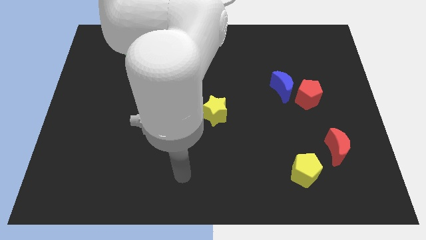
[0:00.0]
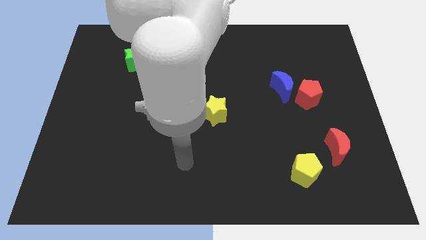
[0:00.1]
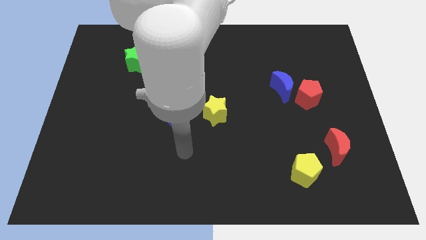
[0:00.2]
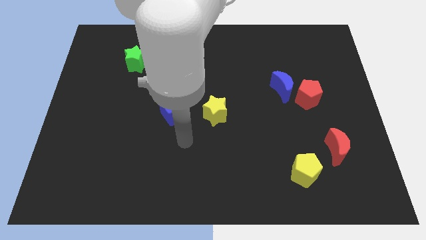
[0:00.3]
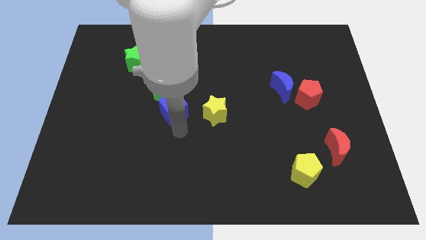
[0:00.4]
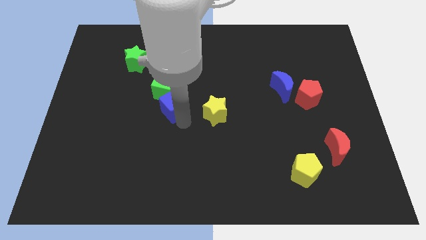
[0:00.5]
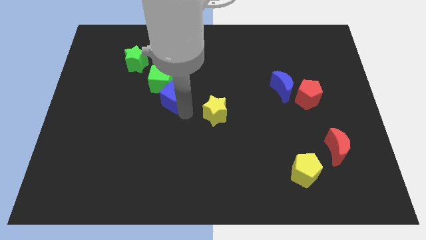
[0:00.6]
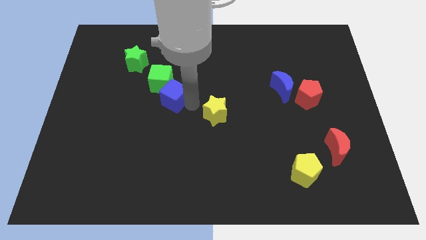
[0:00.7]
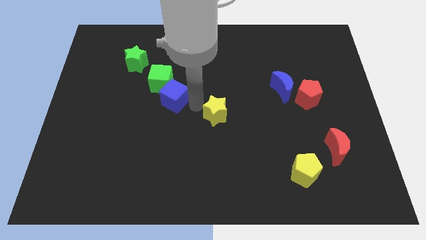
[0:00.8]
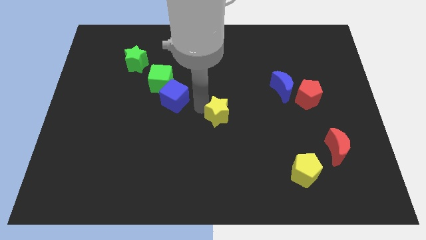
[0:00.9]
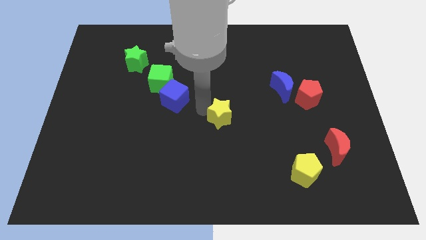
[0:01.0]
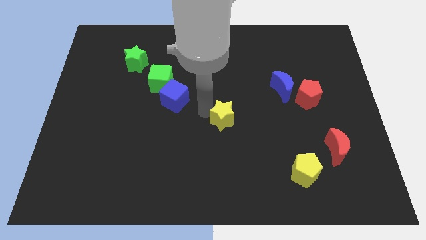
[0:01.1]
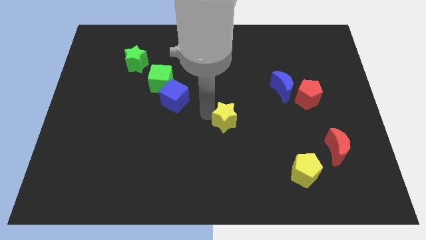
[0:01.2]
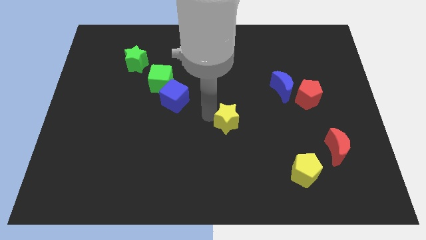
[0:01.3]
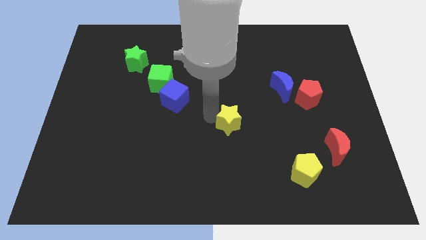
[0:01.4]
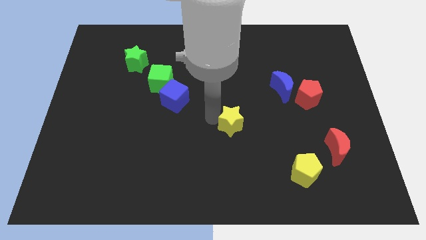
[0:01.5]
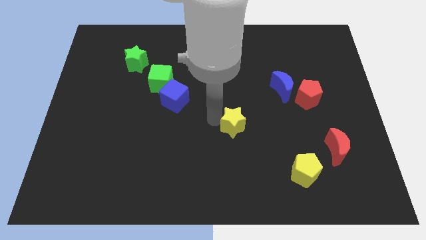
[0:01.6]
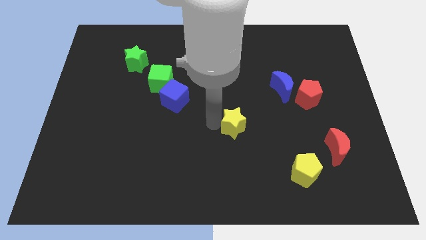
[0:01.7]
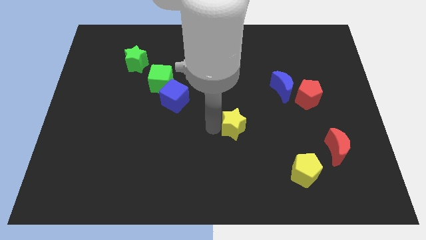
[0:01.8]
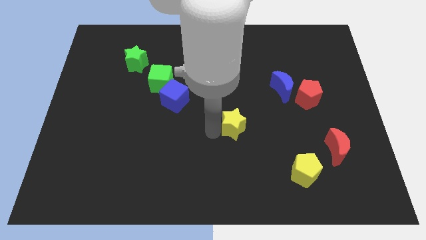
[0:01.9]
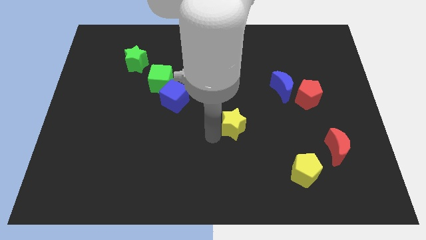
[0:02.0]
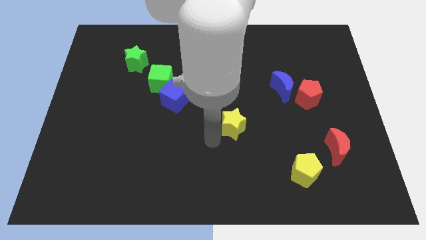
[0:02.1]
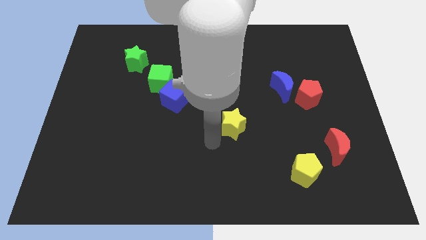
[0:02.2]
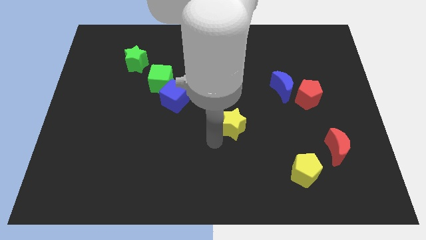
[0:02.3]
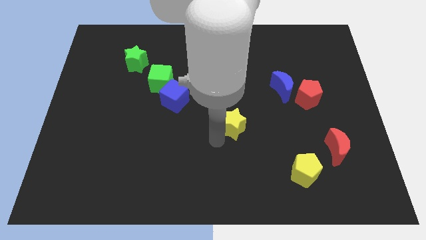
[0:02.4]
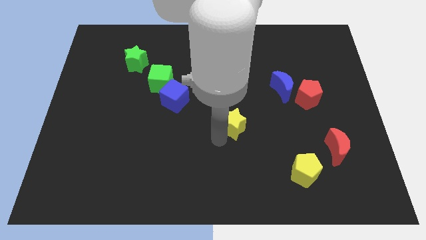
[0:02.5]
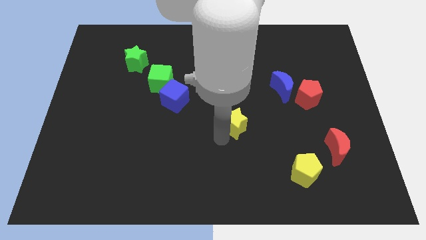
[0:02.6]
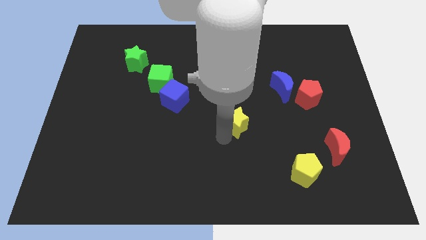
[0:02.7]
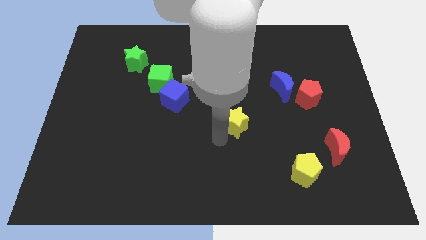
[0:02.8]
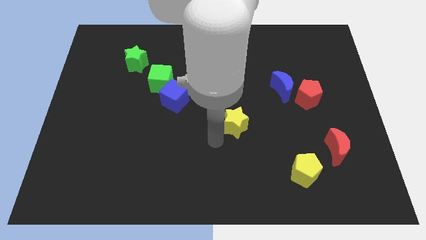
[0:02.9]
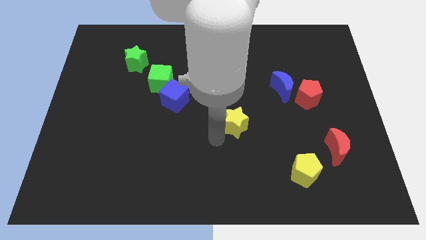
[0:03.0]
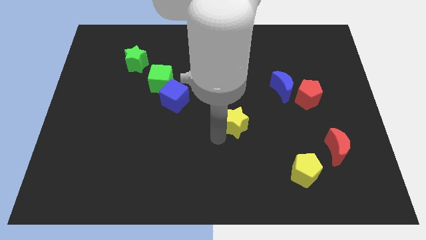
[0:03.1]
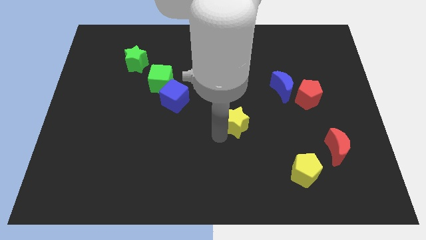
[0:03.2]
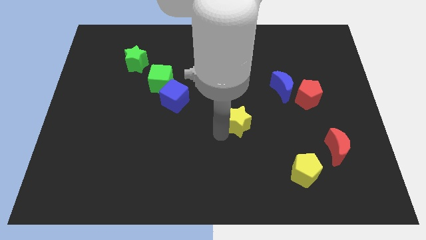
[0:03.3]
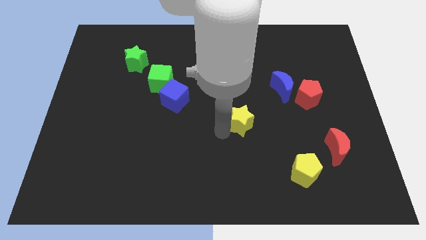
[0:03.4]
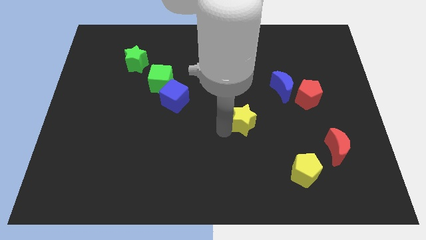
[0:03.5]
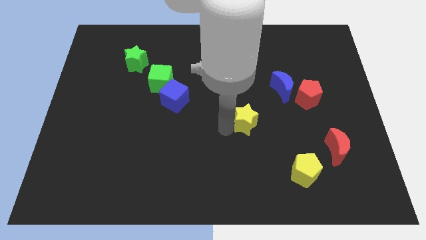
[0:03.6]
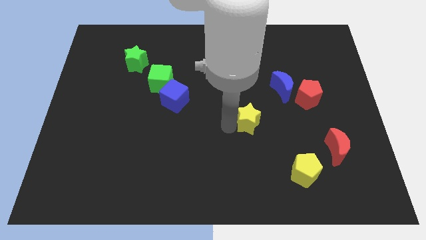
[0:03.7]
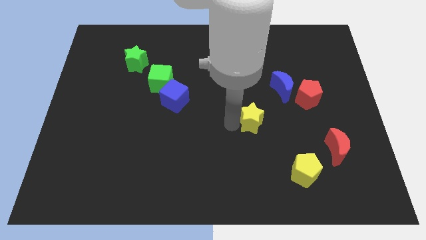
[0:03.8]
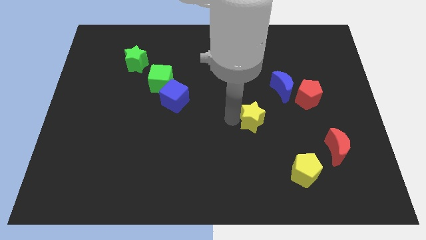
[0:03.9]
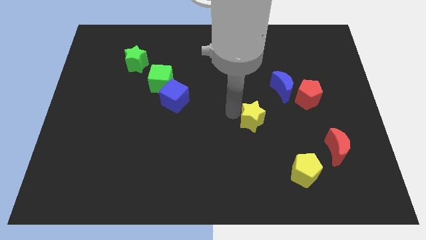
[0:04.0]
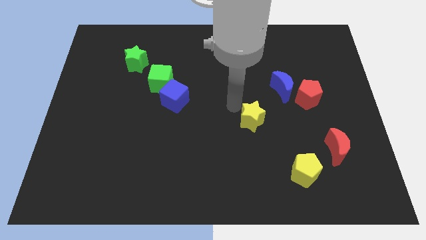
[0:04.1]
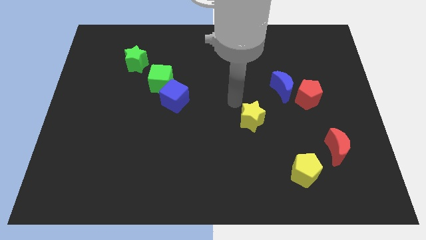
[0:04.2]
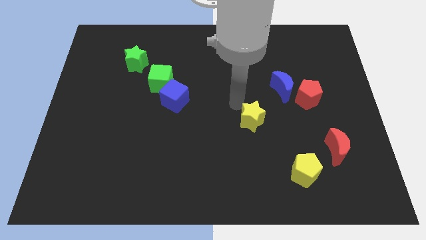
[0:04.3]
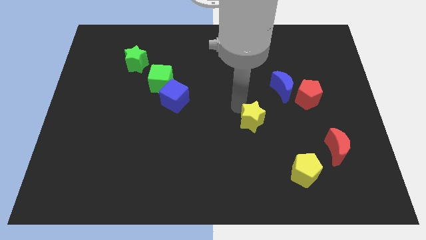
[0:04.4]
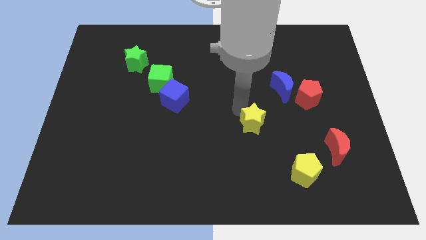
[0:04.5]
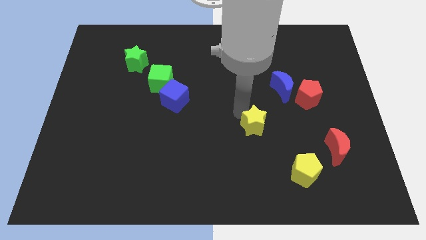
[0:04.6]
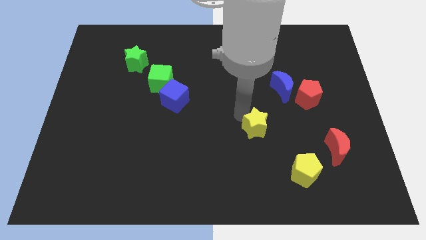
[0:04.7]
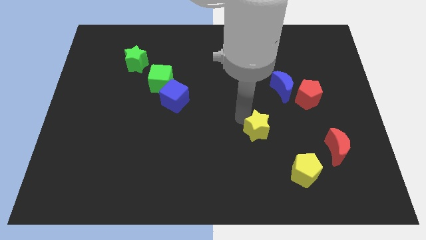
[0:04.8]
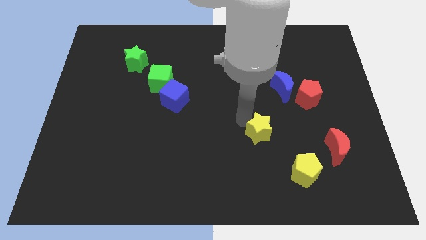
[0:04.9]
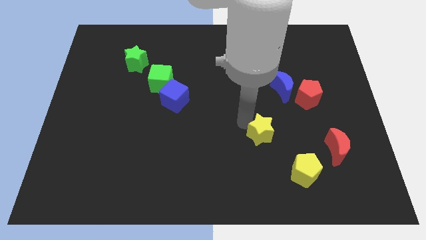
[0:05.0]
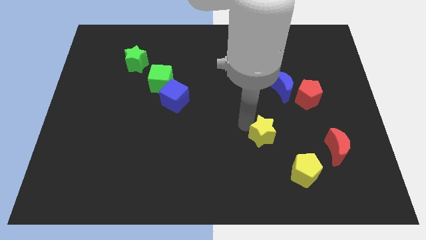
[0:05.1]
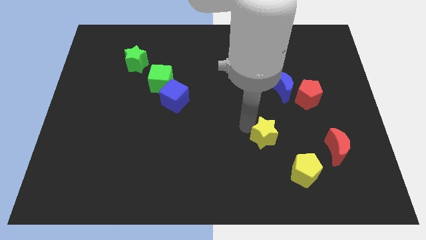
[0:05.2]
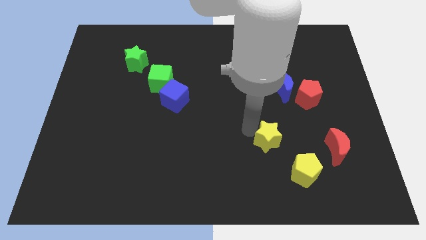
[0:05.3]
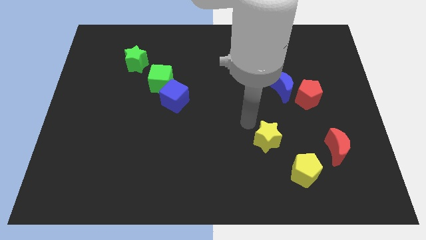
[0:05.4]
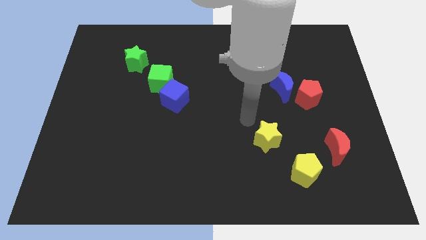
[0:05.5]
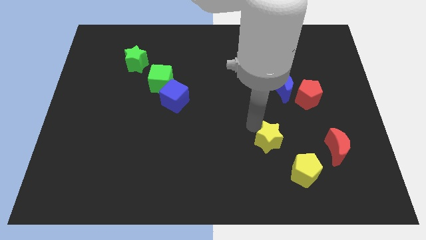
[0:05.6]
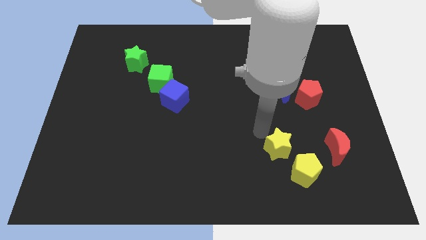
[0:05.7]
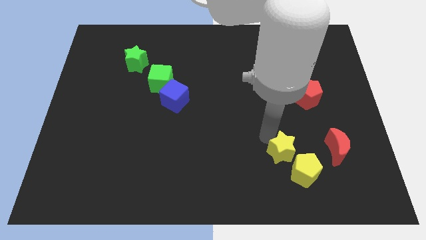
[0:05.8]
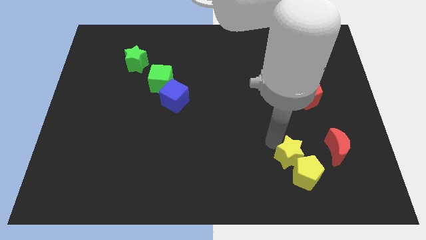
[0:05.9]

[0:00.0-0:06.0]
push the yellow star close to the yellow pentagon

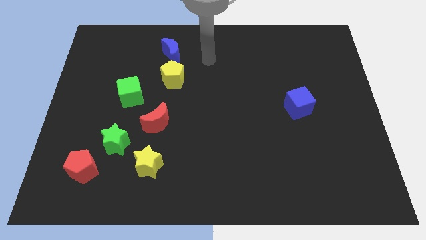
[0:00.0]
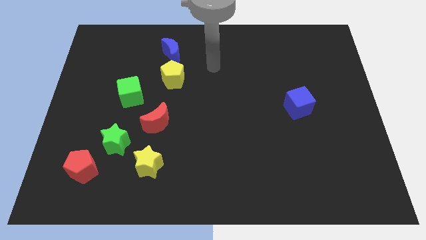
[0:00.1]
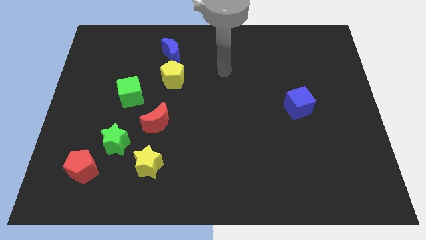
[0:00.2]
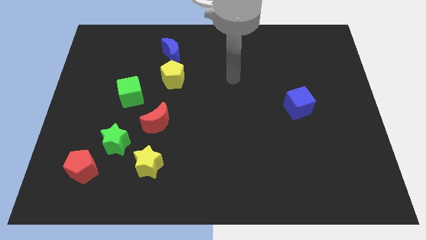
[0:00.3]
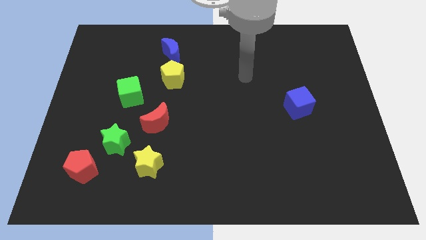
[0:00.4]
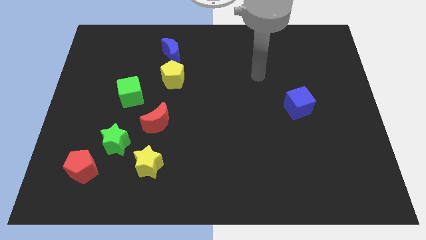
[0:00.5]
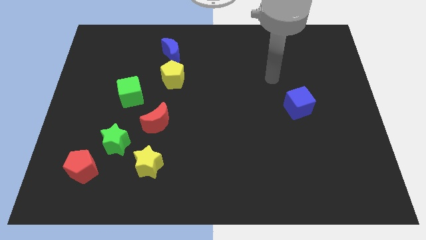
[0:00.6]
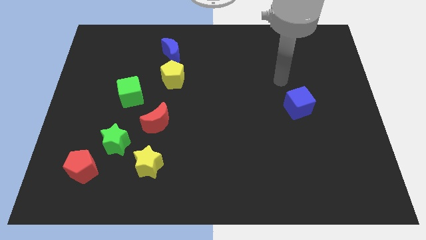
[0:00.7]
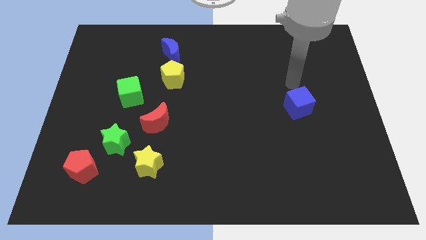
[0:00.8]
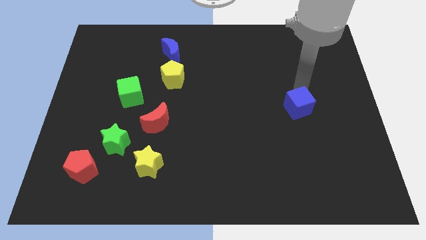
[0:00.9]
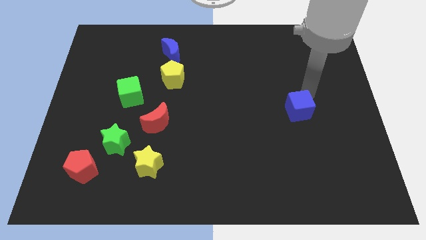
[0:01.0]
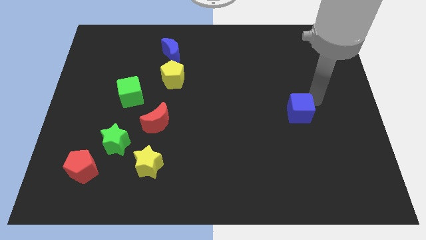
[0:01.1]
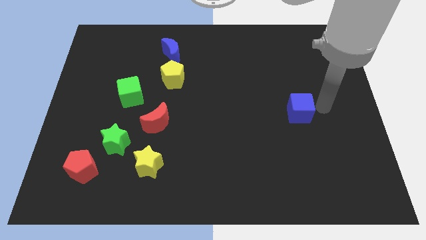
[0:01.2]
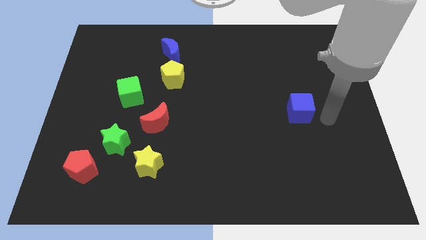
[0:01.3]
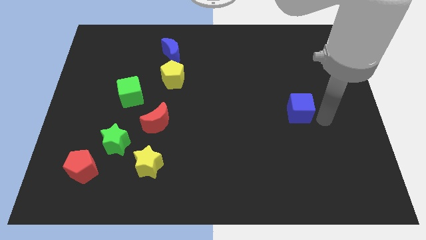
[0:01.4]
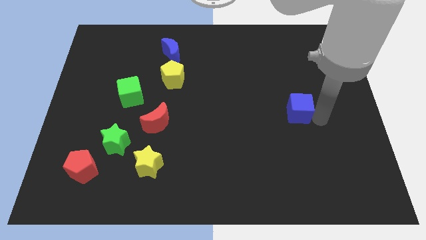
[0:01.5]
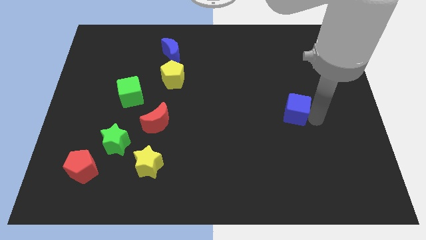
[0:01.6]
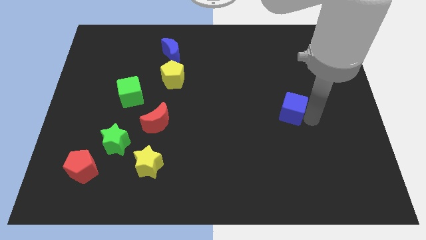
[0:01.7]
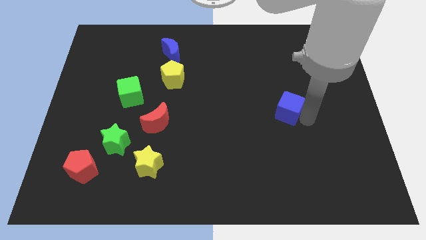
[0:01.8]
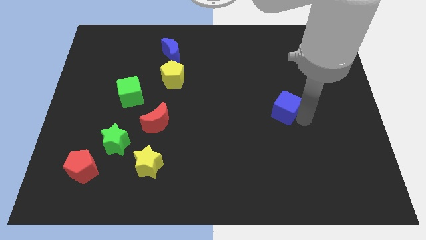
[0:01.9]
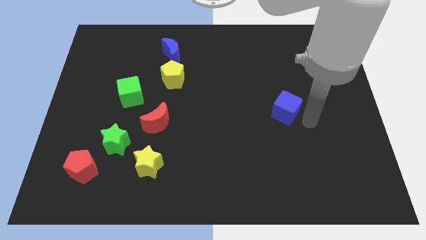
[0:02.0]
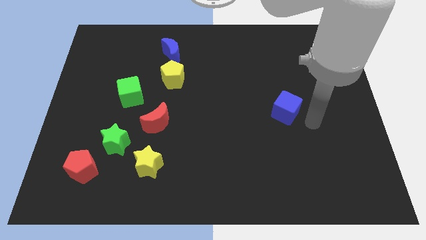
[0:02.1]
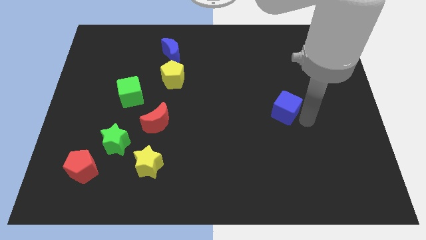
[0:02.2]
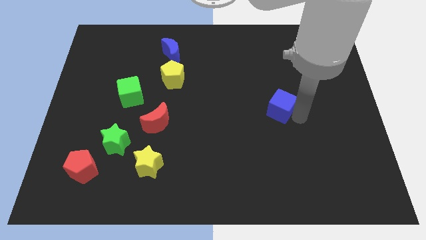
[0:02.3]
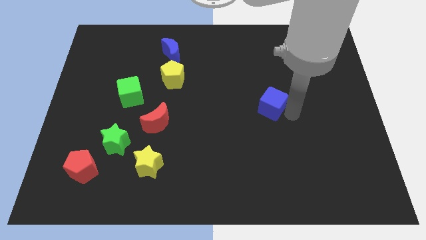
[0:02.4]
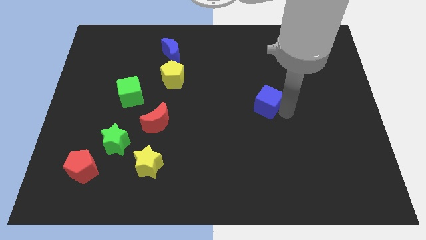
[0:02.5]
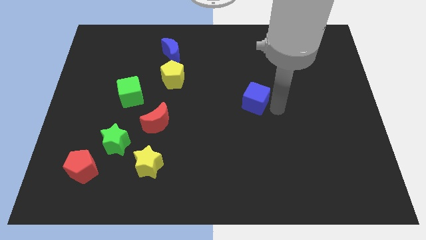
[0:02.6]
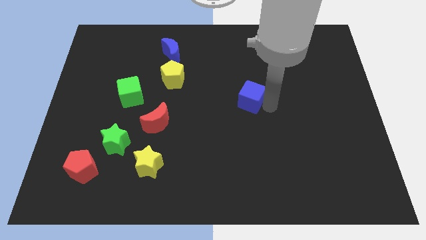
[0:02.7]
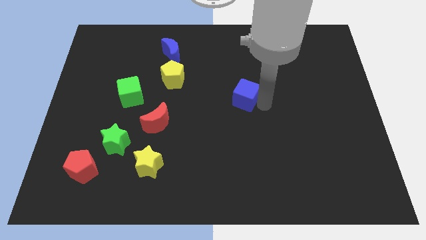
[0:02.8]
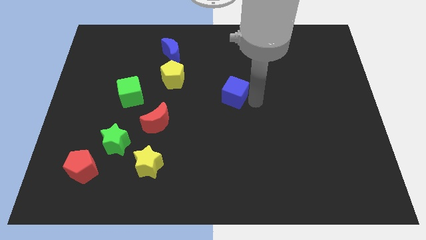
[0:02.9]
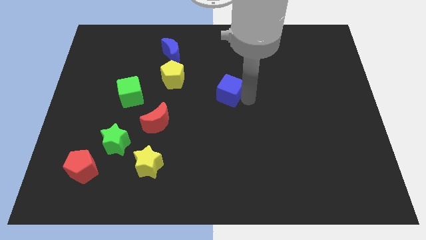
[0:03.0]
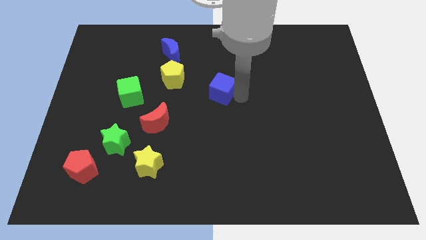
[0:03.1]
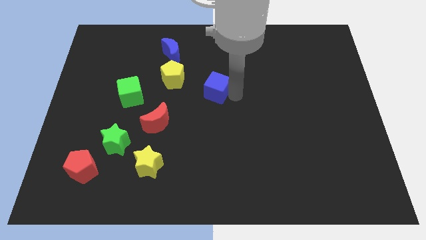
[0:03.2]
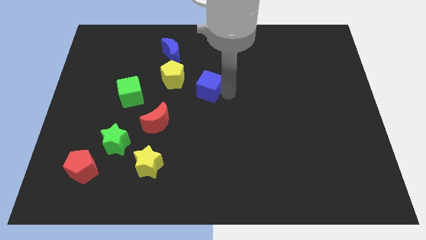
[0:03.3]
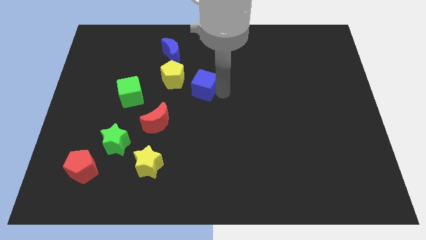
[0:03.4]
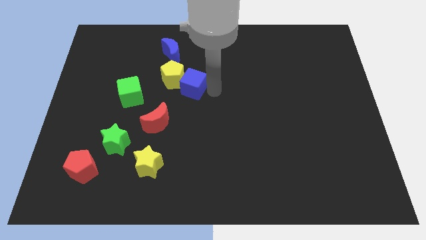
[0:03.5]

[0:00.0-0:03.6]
put the blue cube close to the yellow pentagon
